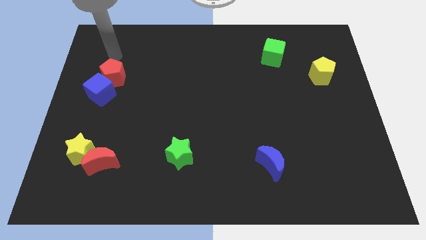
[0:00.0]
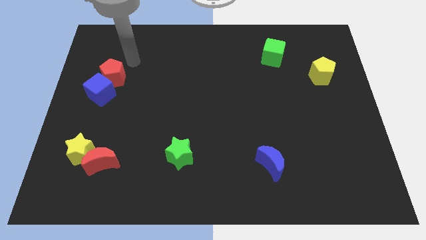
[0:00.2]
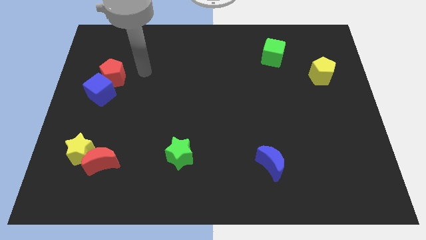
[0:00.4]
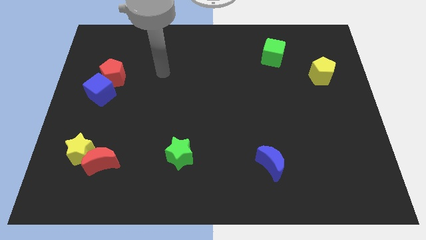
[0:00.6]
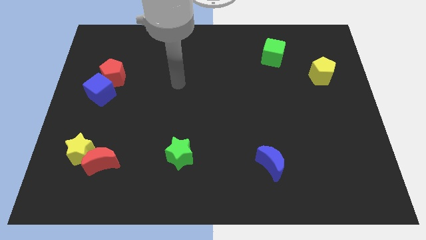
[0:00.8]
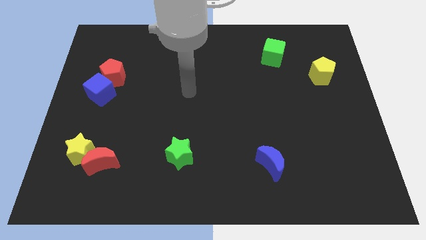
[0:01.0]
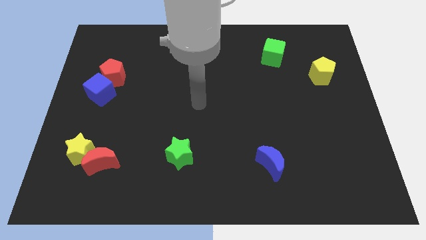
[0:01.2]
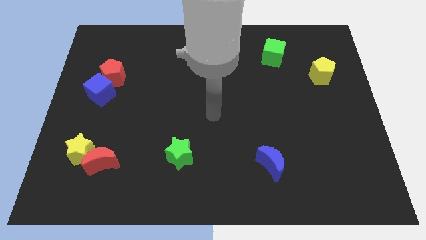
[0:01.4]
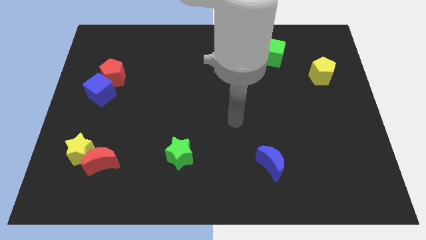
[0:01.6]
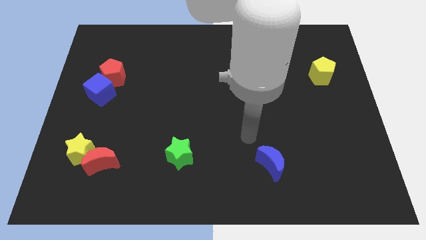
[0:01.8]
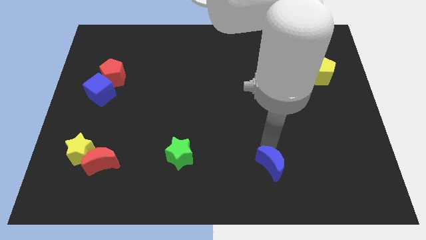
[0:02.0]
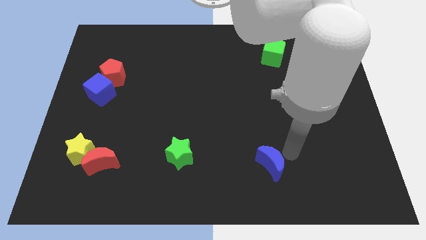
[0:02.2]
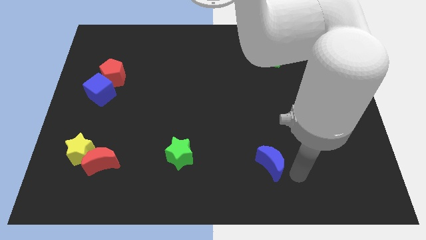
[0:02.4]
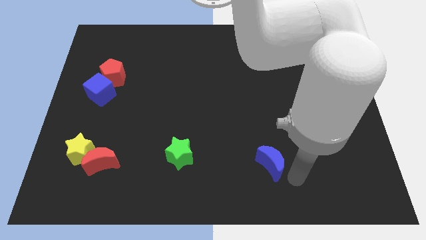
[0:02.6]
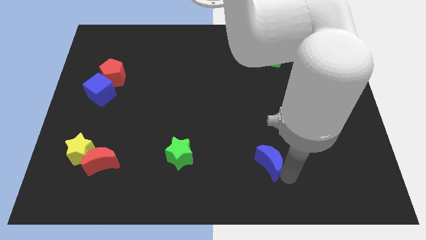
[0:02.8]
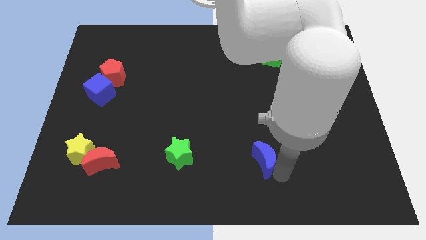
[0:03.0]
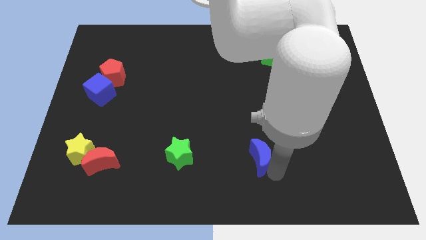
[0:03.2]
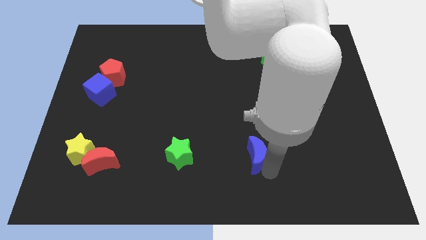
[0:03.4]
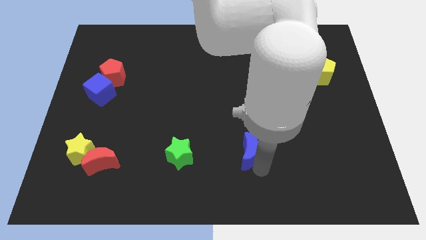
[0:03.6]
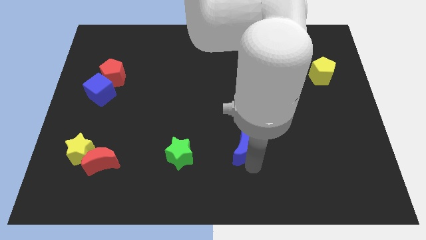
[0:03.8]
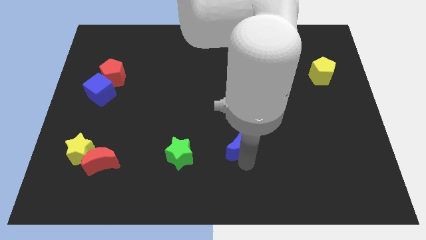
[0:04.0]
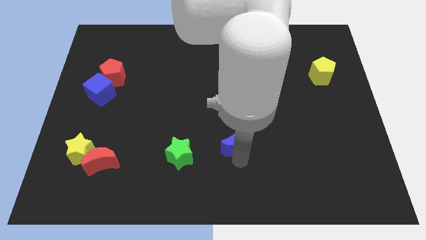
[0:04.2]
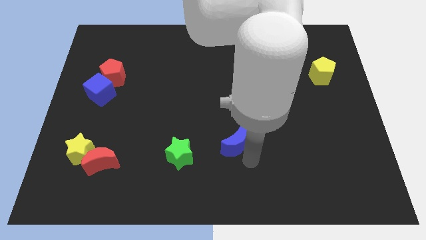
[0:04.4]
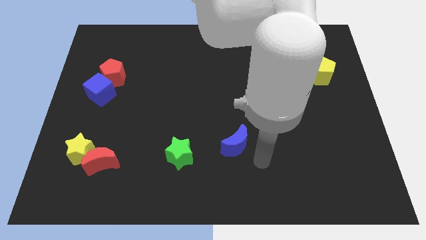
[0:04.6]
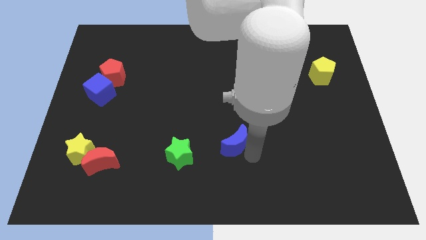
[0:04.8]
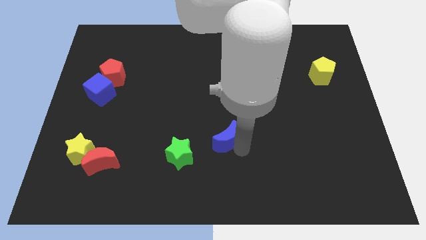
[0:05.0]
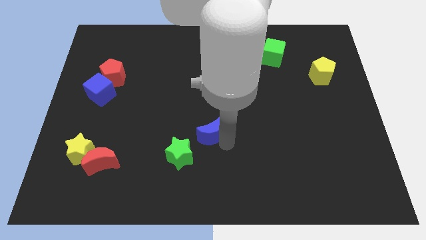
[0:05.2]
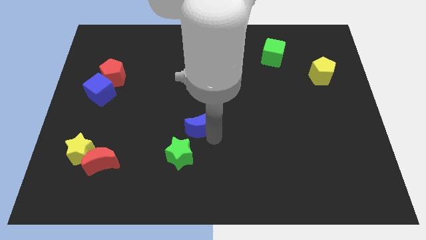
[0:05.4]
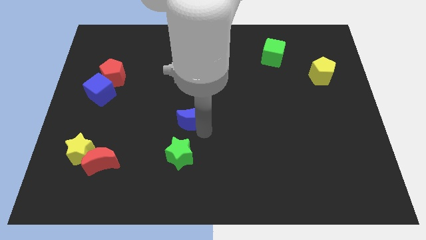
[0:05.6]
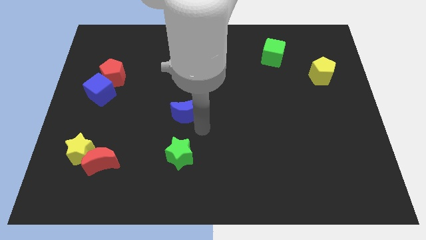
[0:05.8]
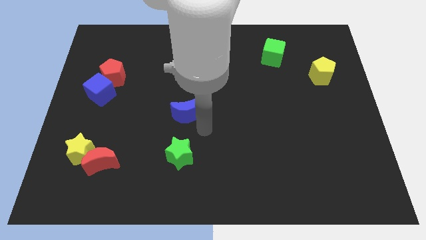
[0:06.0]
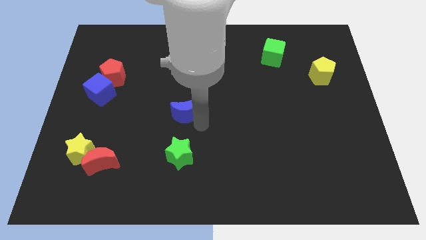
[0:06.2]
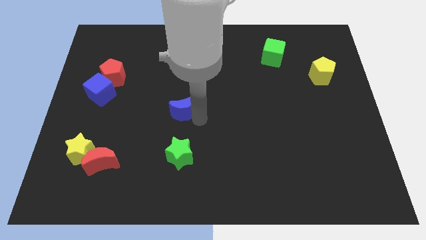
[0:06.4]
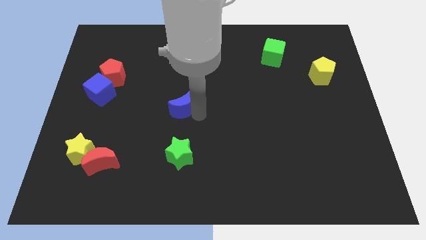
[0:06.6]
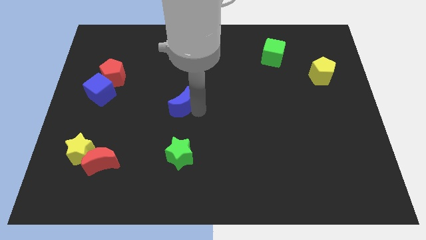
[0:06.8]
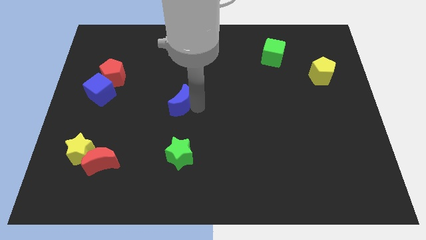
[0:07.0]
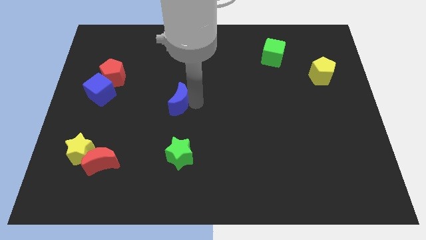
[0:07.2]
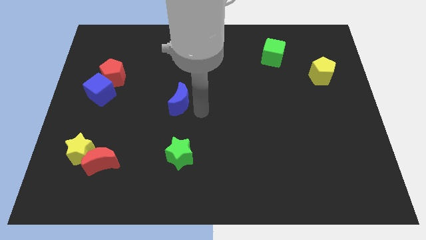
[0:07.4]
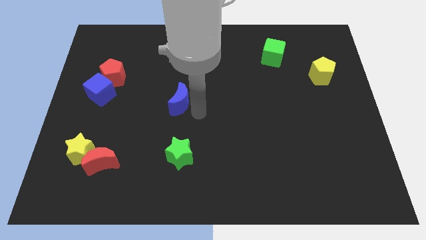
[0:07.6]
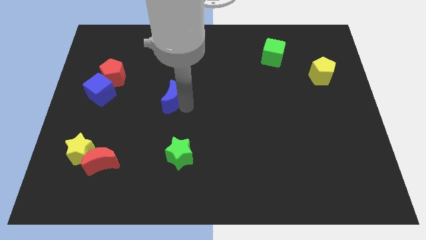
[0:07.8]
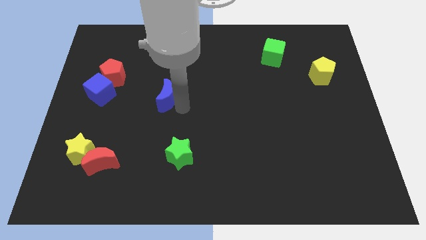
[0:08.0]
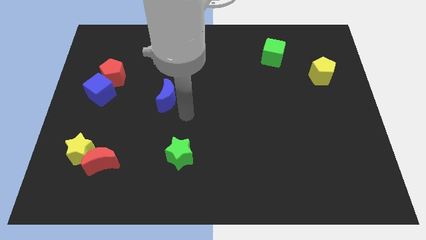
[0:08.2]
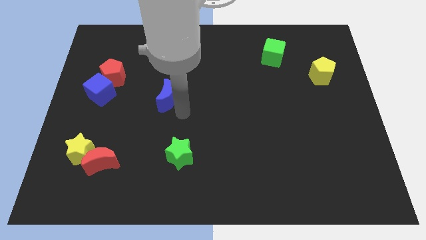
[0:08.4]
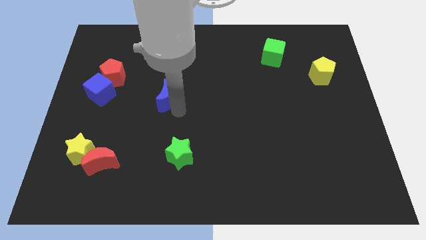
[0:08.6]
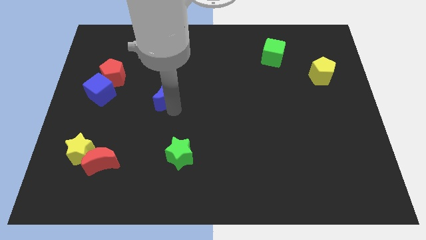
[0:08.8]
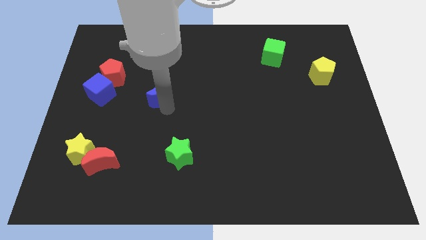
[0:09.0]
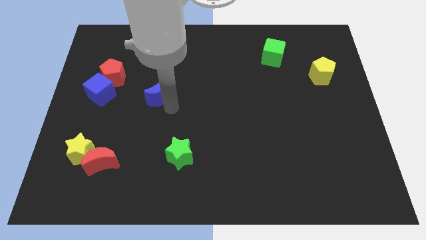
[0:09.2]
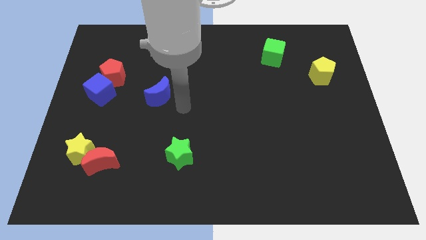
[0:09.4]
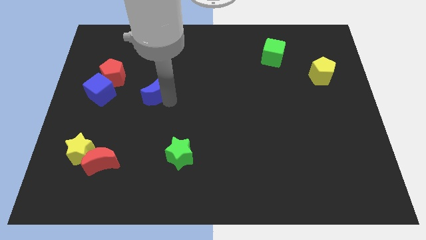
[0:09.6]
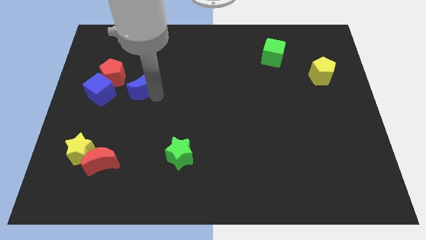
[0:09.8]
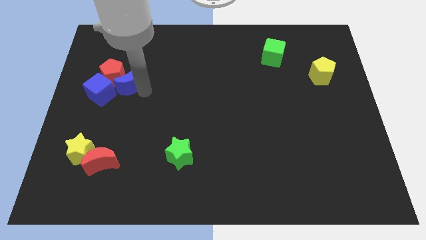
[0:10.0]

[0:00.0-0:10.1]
move the blue moon next to the red pentagon

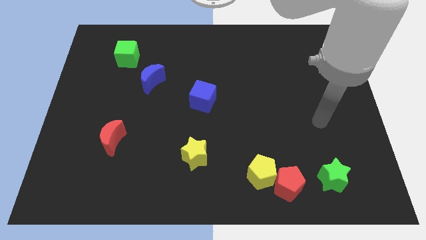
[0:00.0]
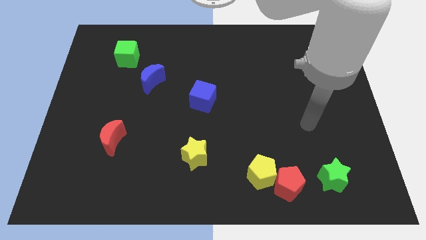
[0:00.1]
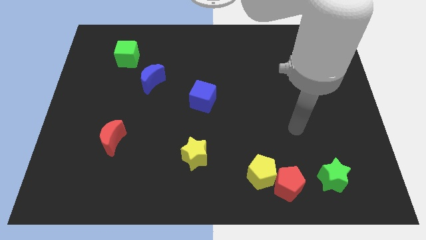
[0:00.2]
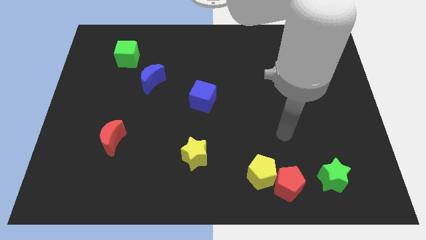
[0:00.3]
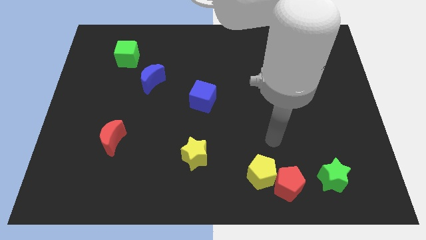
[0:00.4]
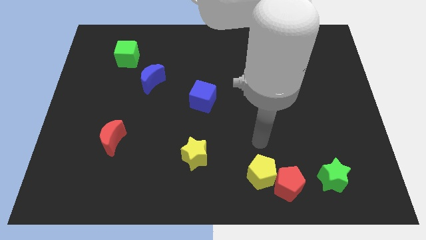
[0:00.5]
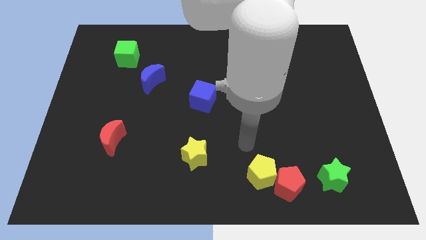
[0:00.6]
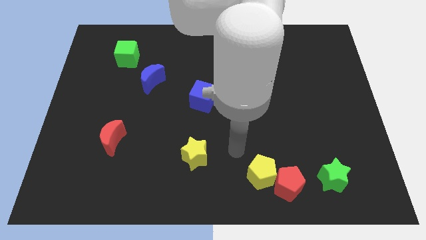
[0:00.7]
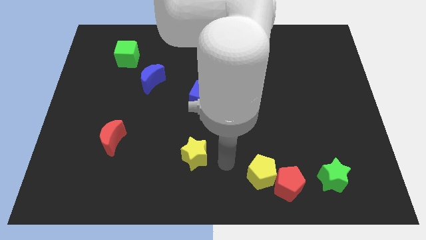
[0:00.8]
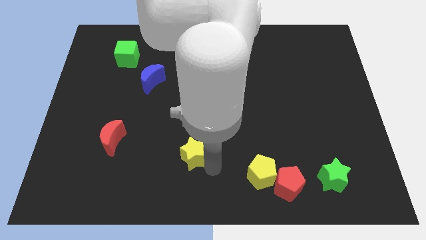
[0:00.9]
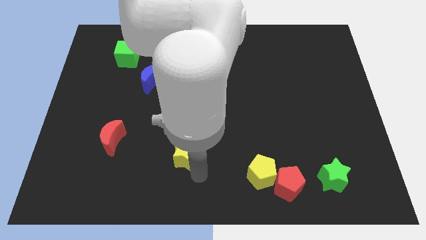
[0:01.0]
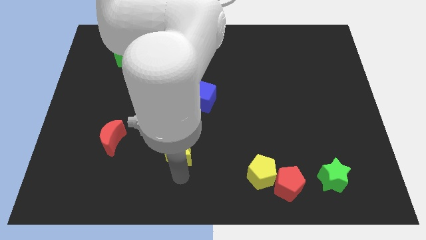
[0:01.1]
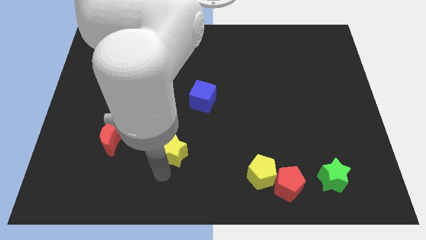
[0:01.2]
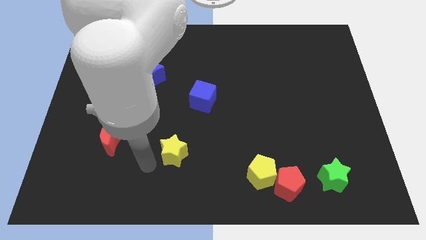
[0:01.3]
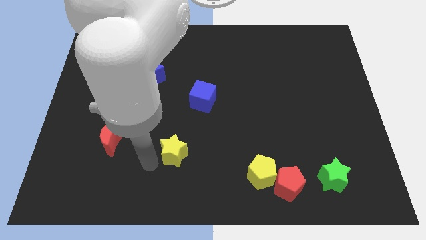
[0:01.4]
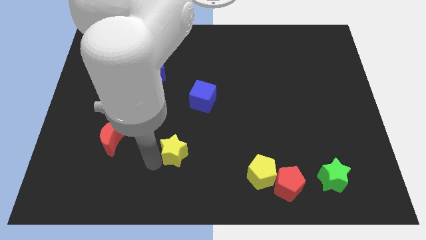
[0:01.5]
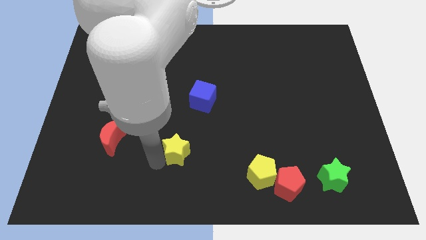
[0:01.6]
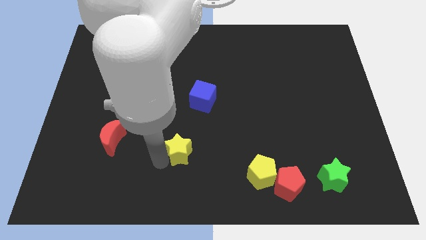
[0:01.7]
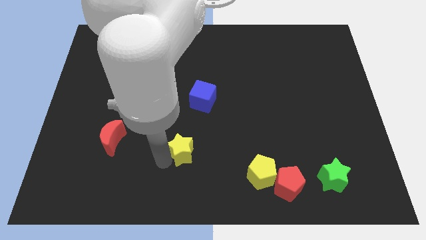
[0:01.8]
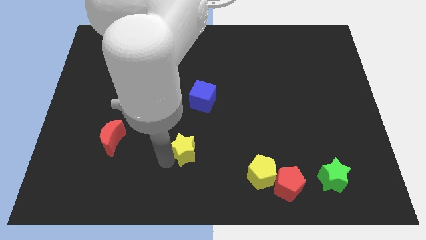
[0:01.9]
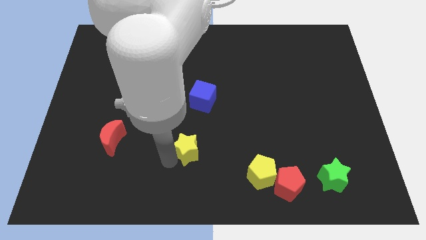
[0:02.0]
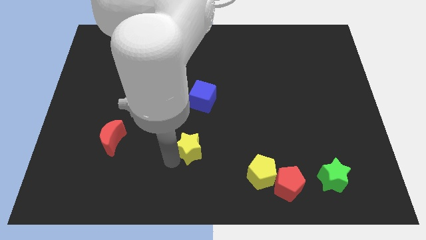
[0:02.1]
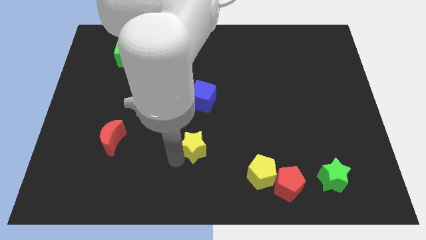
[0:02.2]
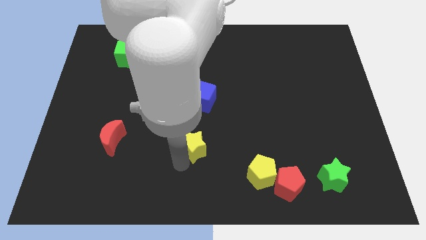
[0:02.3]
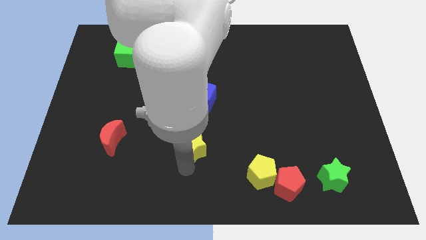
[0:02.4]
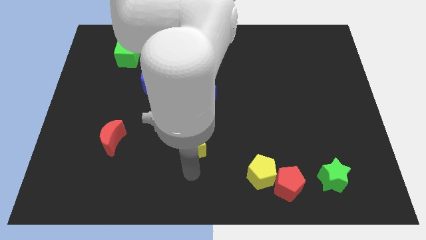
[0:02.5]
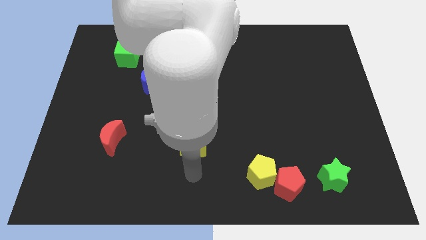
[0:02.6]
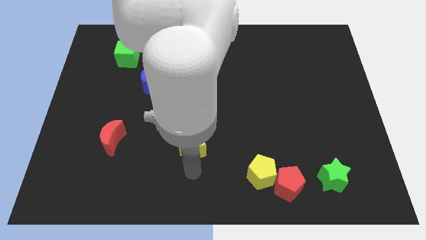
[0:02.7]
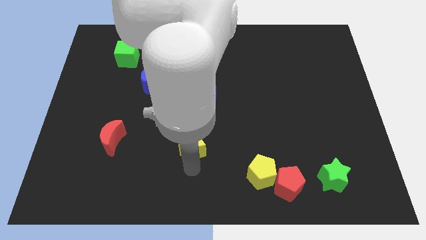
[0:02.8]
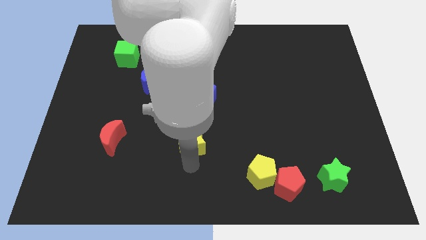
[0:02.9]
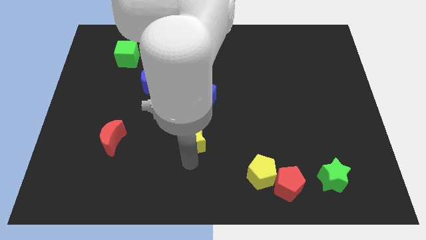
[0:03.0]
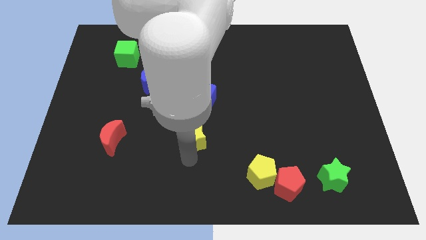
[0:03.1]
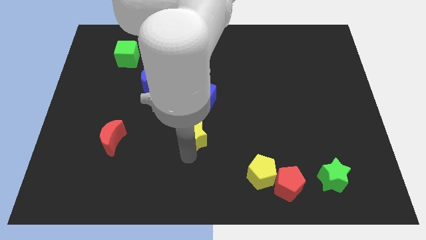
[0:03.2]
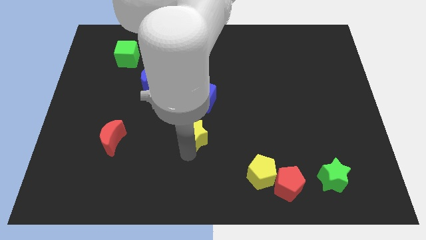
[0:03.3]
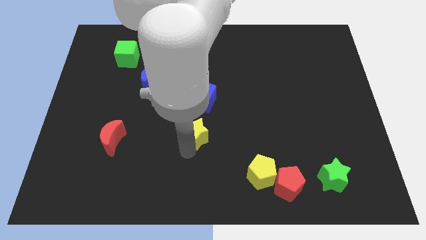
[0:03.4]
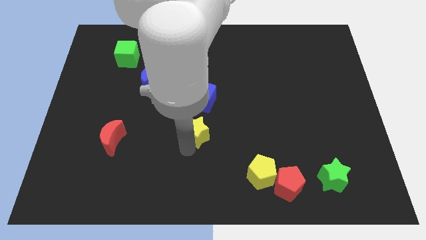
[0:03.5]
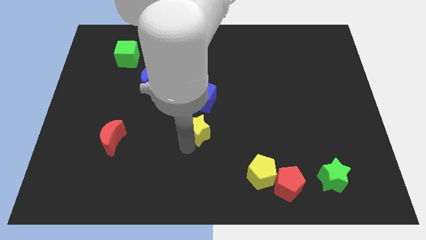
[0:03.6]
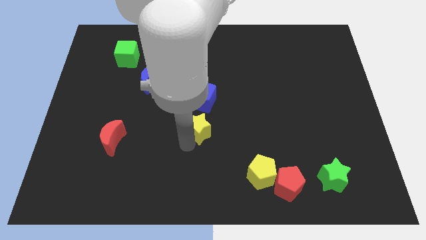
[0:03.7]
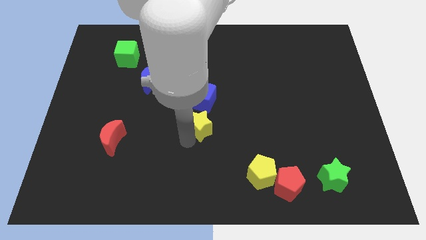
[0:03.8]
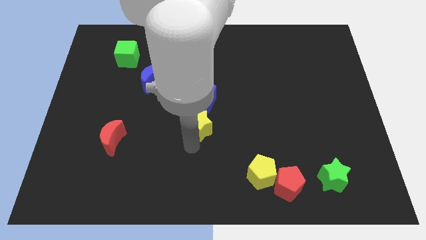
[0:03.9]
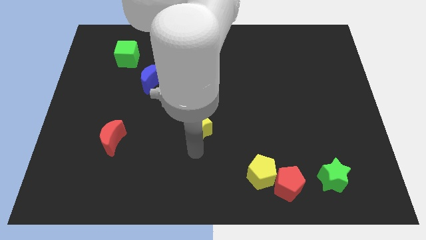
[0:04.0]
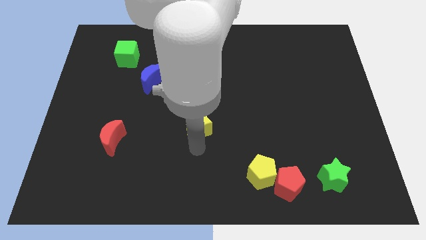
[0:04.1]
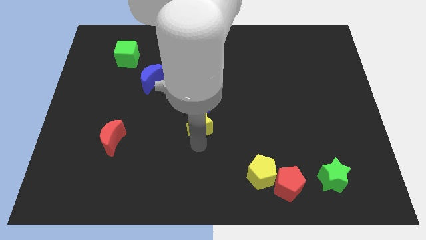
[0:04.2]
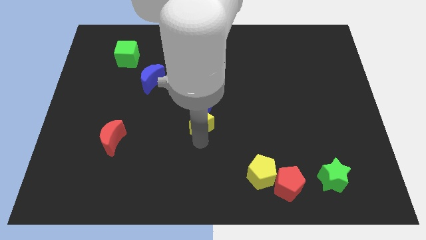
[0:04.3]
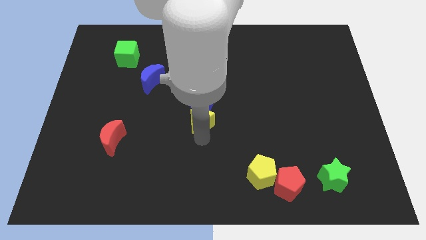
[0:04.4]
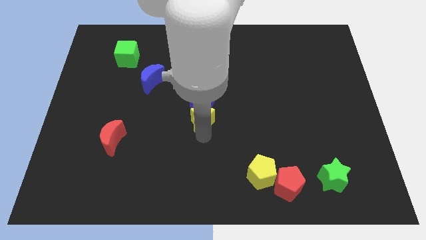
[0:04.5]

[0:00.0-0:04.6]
move the yellow star close to the blue cube
